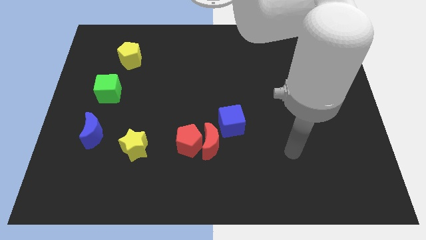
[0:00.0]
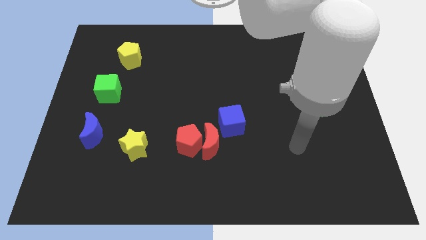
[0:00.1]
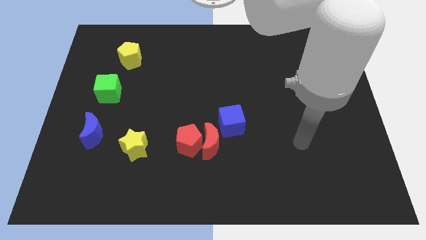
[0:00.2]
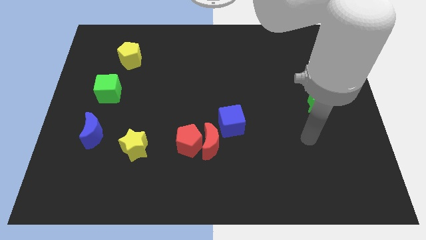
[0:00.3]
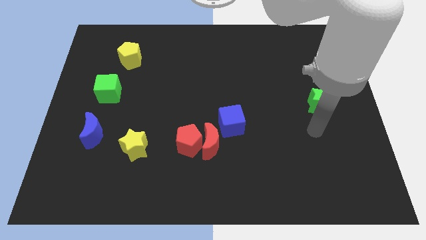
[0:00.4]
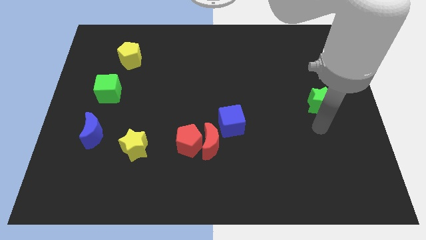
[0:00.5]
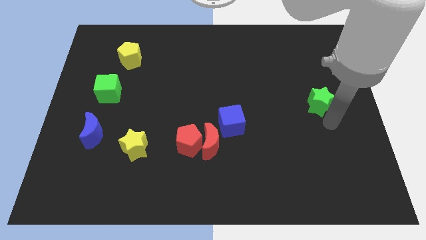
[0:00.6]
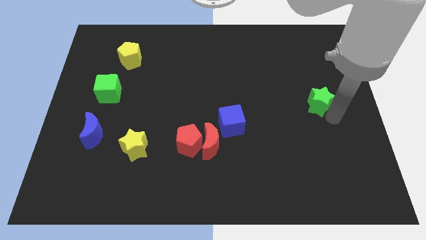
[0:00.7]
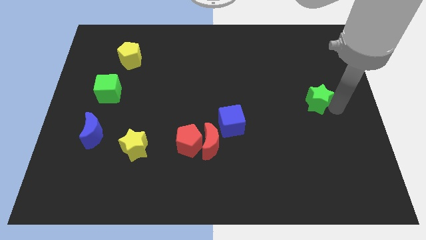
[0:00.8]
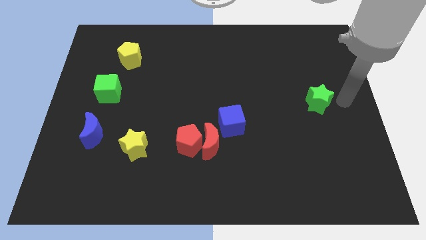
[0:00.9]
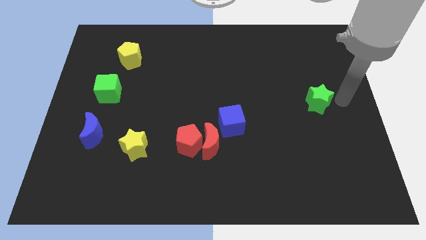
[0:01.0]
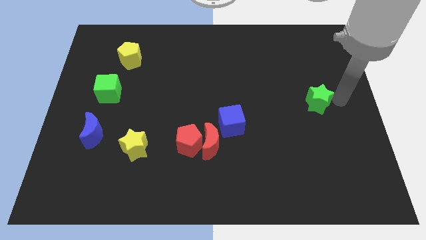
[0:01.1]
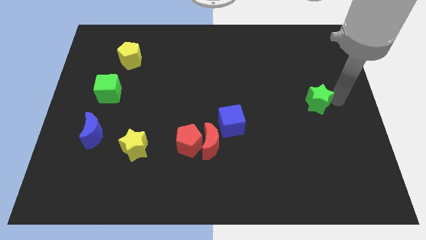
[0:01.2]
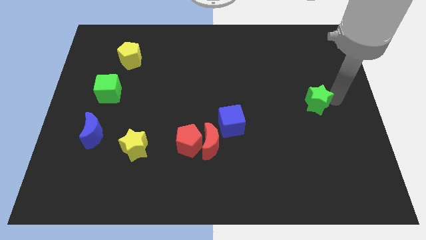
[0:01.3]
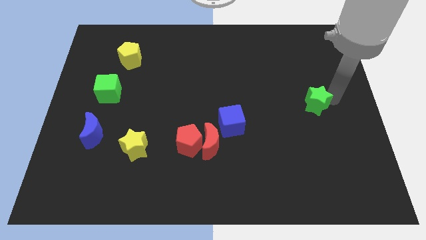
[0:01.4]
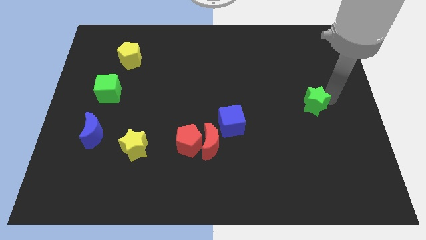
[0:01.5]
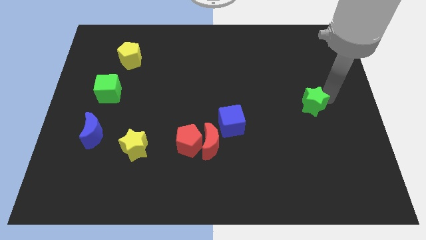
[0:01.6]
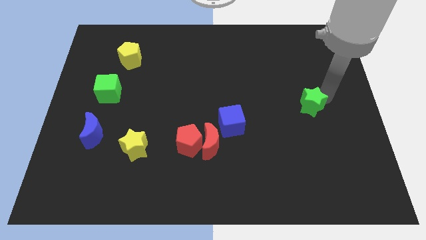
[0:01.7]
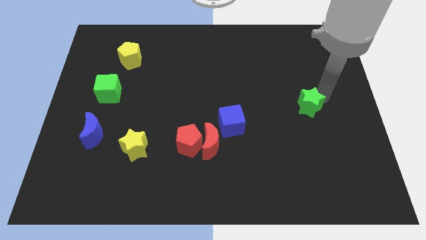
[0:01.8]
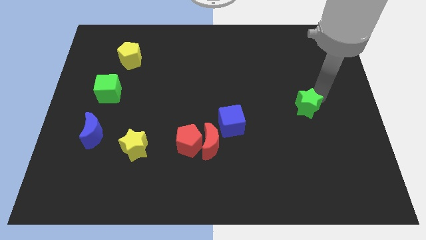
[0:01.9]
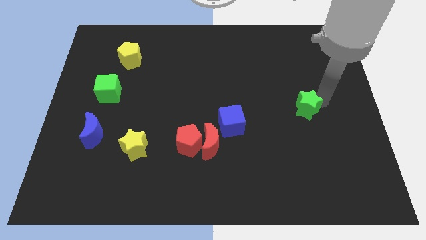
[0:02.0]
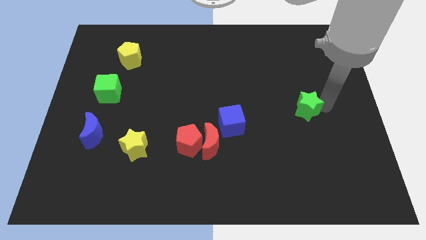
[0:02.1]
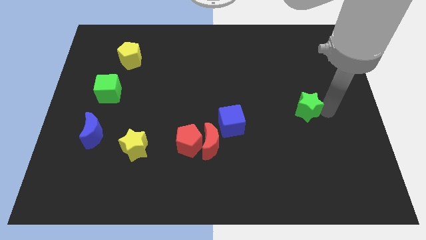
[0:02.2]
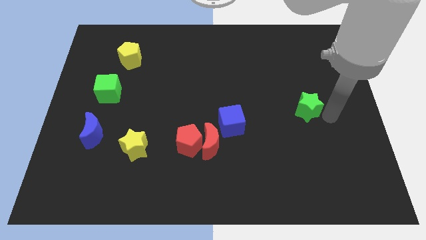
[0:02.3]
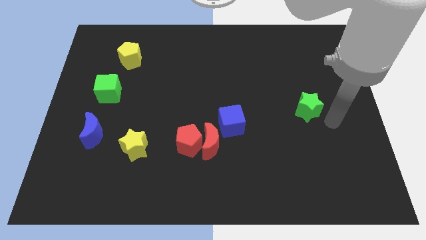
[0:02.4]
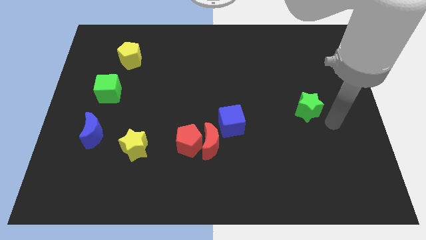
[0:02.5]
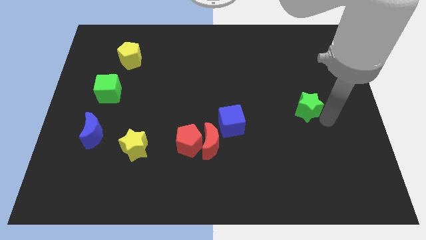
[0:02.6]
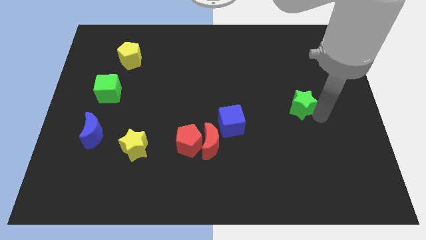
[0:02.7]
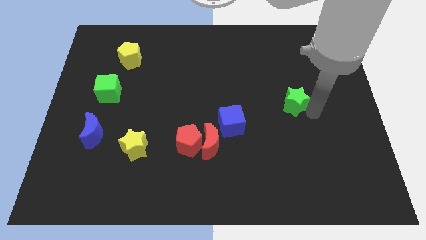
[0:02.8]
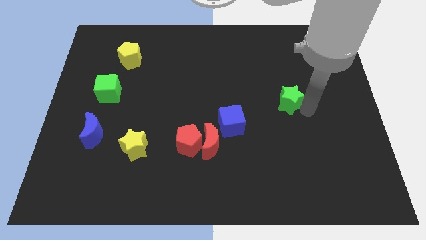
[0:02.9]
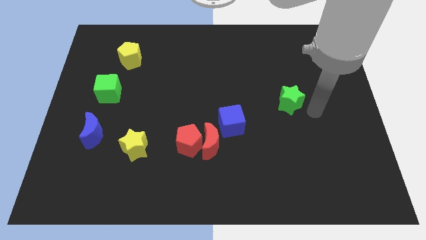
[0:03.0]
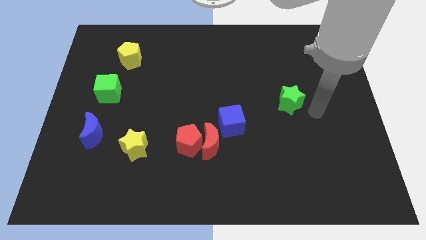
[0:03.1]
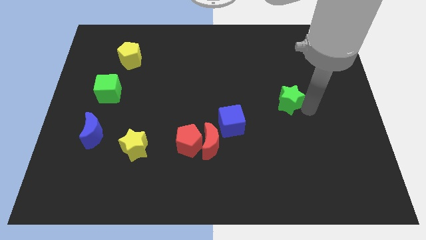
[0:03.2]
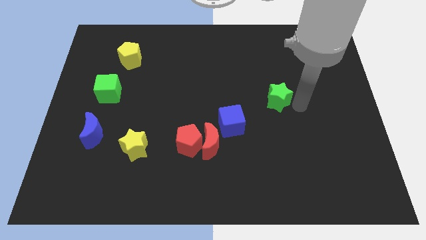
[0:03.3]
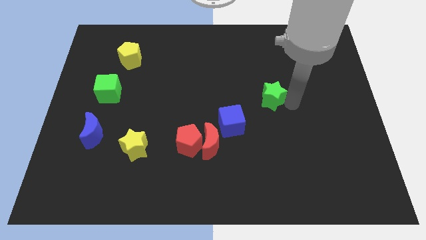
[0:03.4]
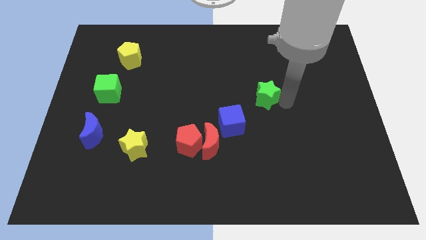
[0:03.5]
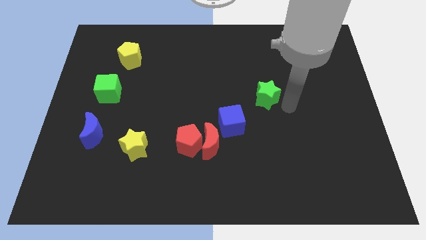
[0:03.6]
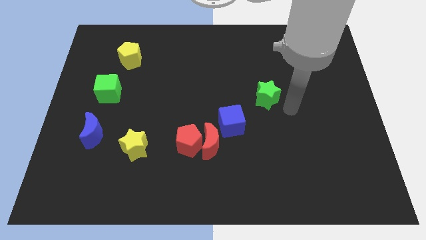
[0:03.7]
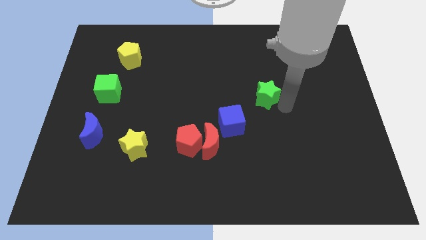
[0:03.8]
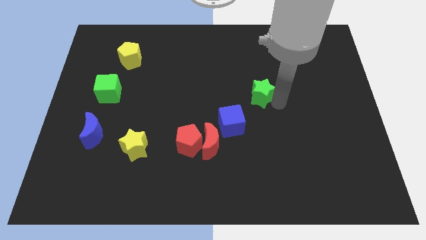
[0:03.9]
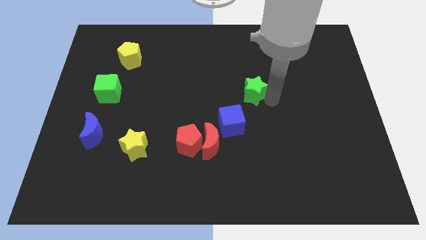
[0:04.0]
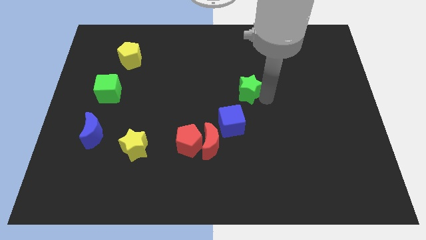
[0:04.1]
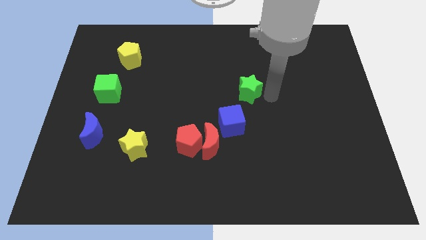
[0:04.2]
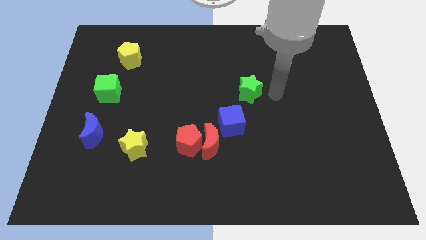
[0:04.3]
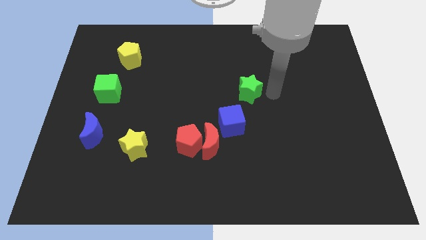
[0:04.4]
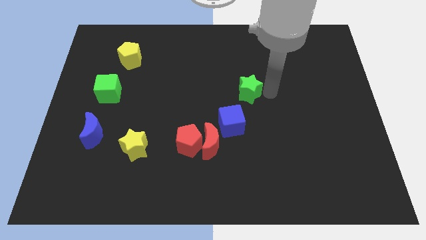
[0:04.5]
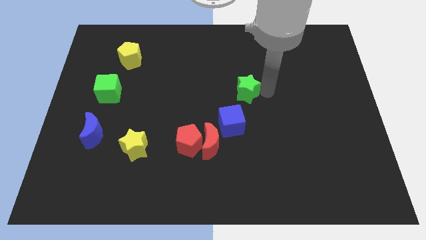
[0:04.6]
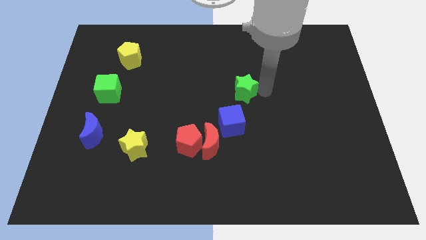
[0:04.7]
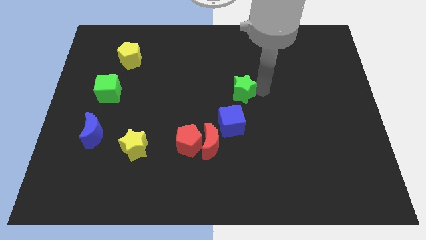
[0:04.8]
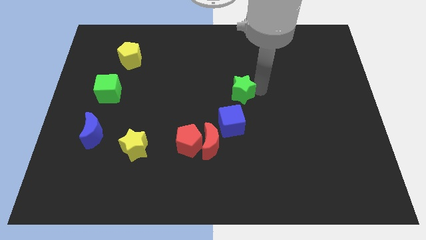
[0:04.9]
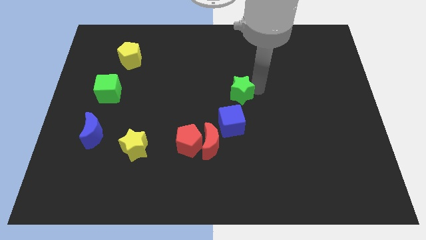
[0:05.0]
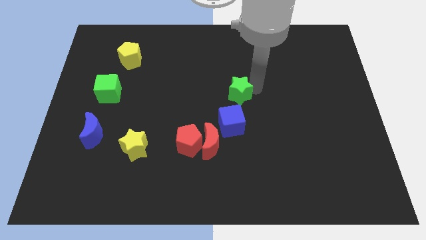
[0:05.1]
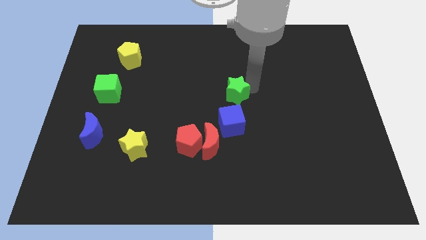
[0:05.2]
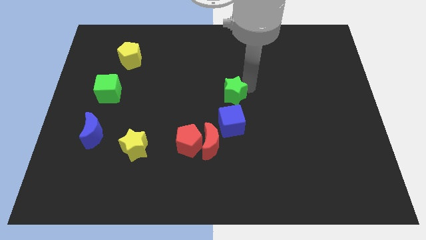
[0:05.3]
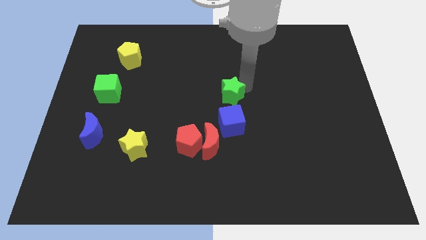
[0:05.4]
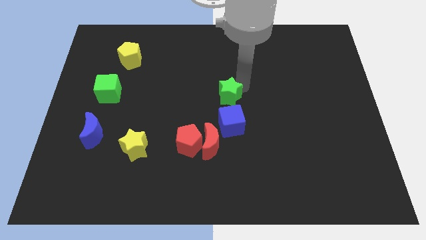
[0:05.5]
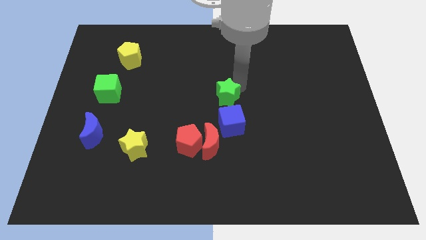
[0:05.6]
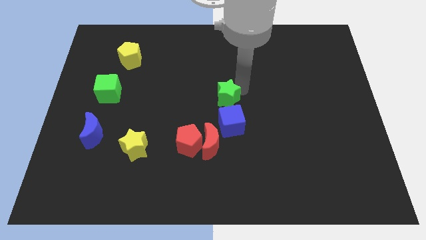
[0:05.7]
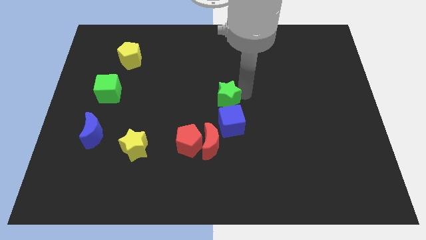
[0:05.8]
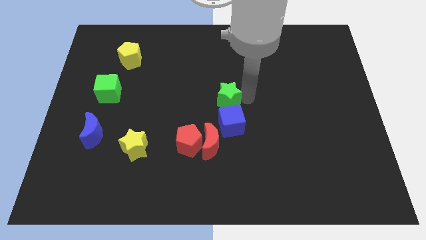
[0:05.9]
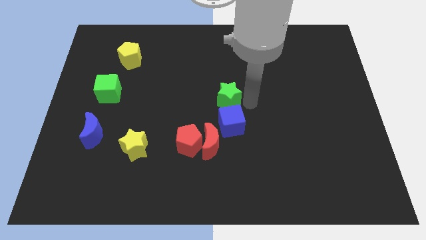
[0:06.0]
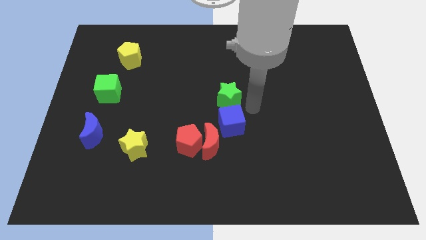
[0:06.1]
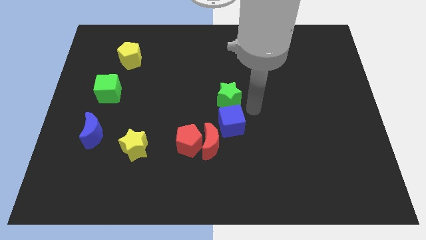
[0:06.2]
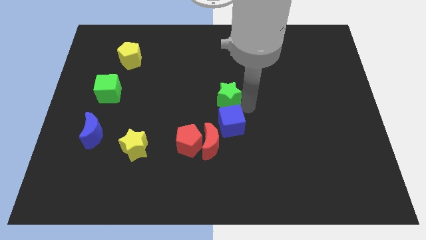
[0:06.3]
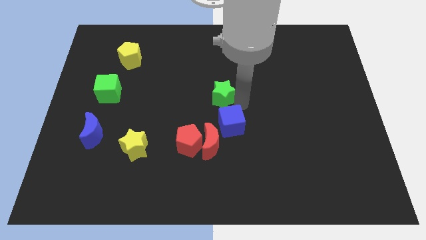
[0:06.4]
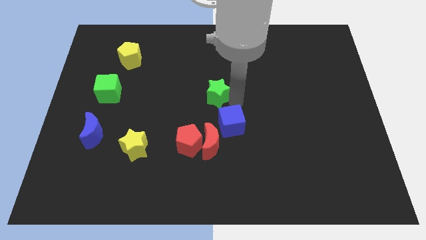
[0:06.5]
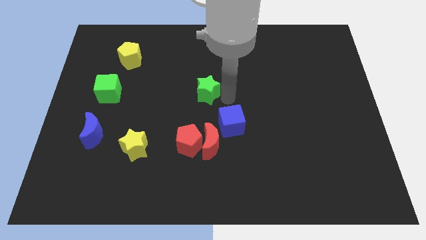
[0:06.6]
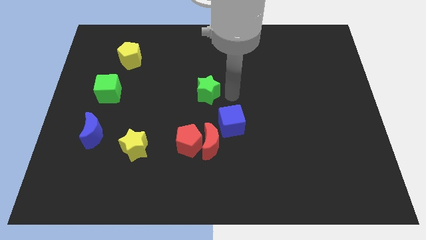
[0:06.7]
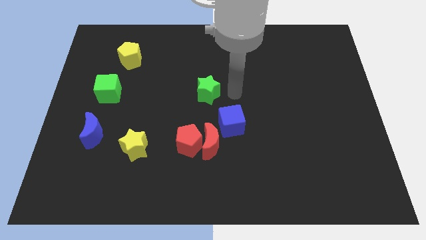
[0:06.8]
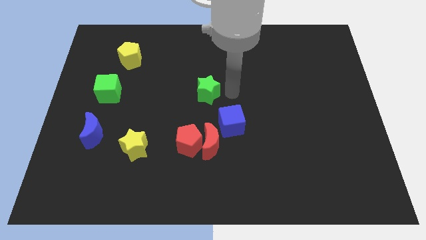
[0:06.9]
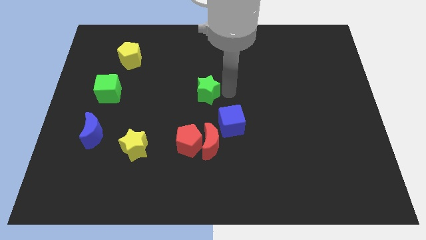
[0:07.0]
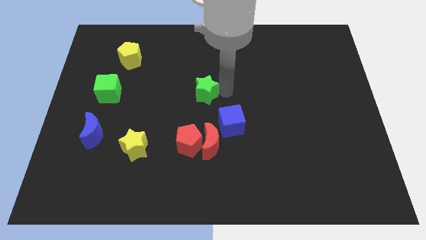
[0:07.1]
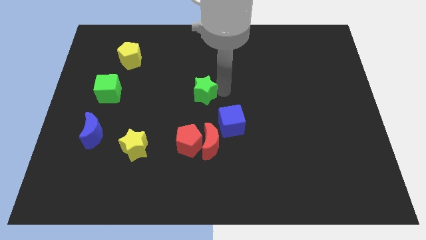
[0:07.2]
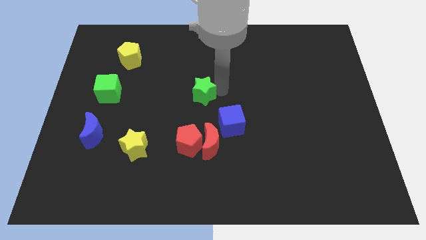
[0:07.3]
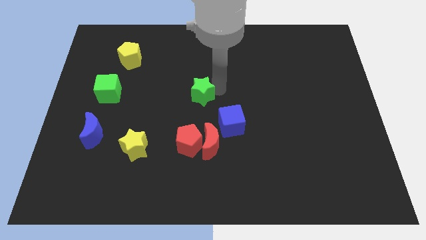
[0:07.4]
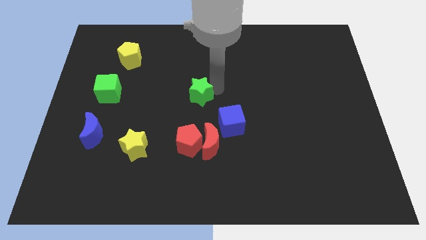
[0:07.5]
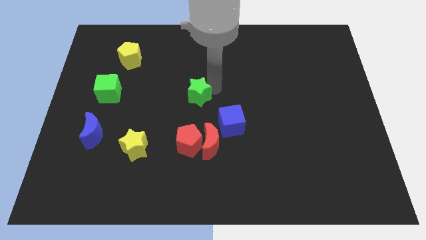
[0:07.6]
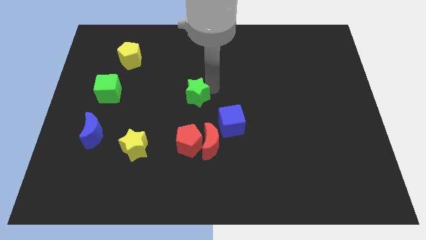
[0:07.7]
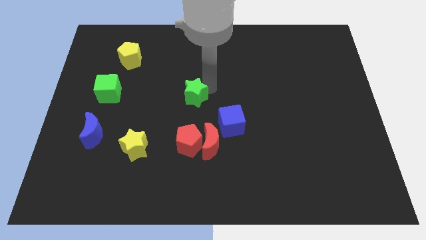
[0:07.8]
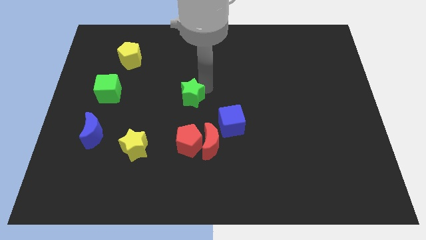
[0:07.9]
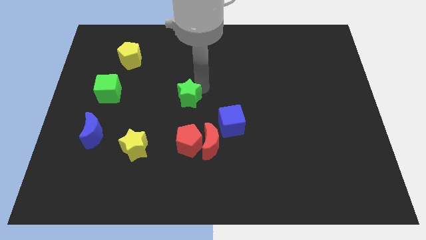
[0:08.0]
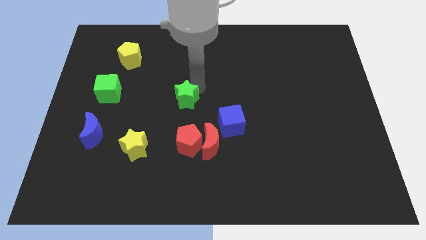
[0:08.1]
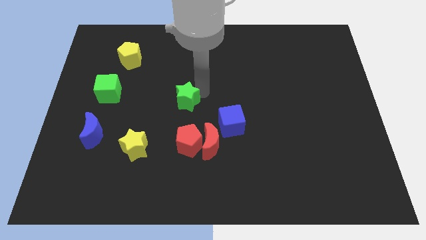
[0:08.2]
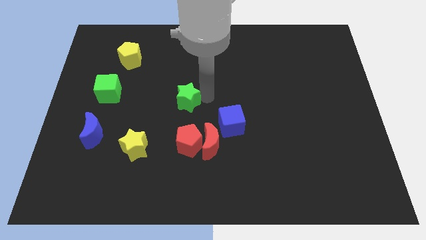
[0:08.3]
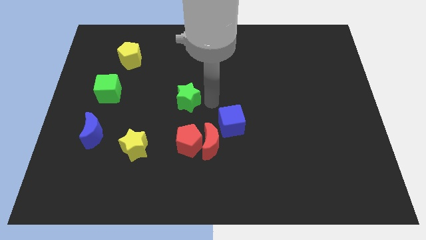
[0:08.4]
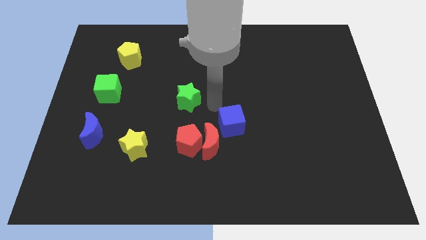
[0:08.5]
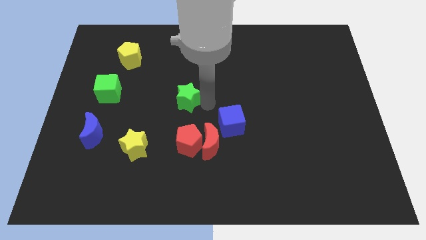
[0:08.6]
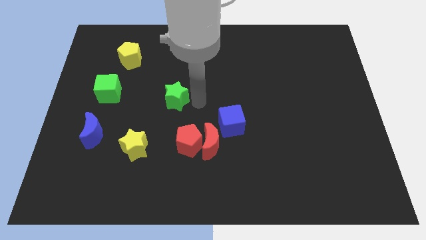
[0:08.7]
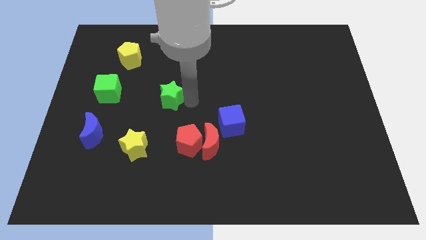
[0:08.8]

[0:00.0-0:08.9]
push the green star to the right side of the green cube
